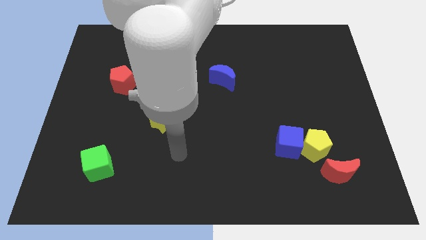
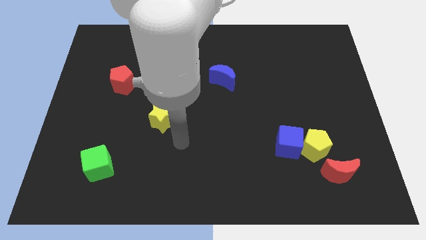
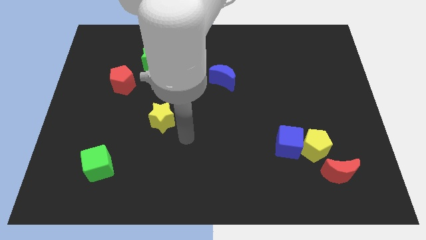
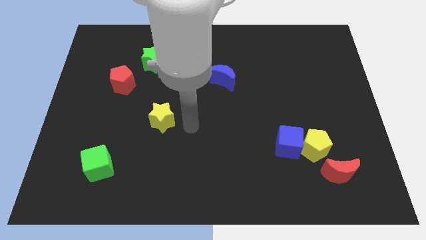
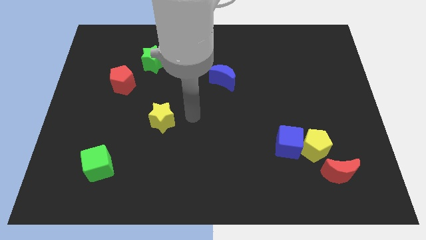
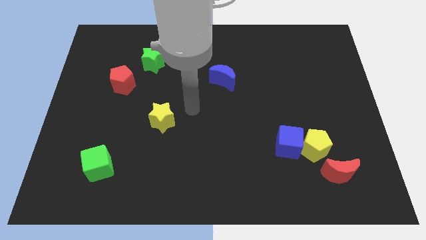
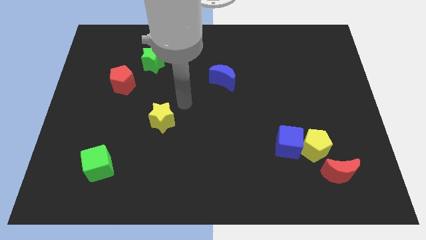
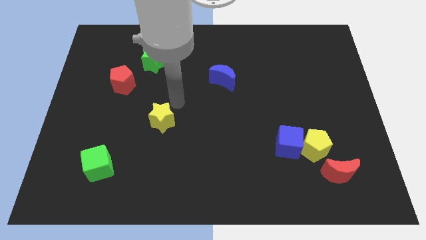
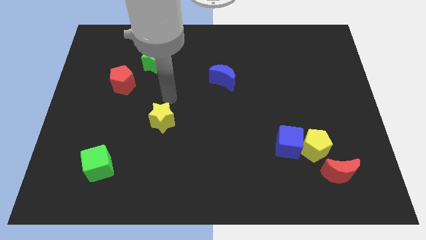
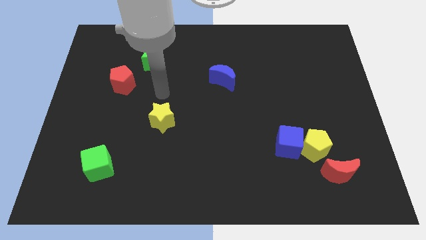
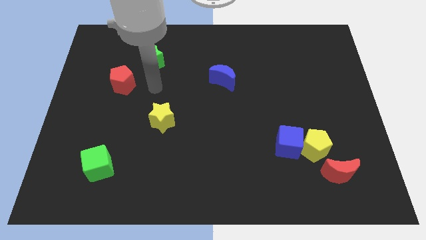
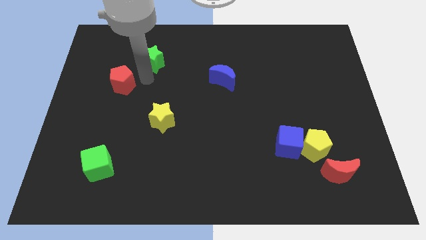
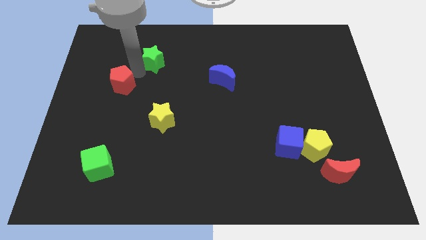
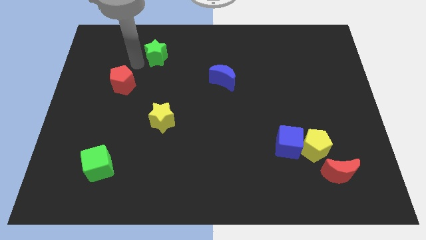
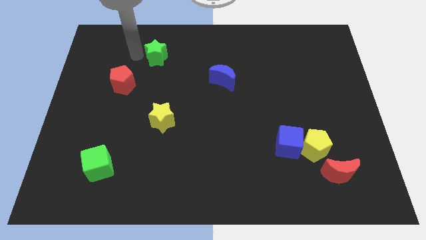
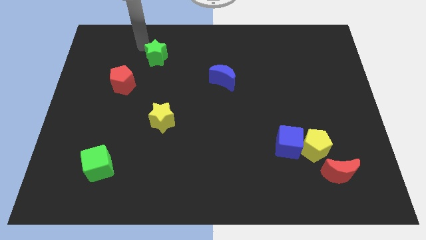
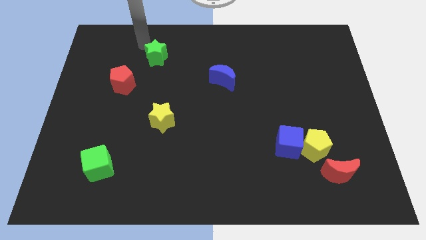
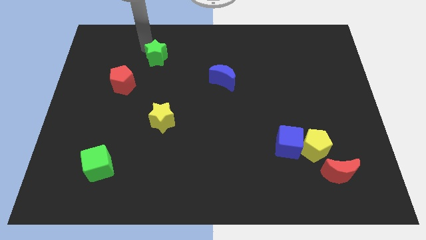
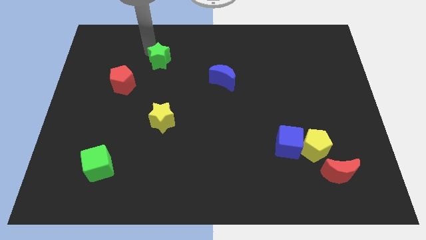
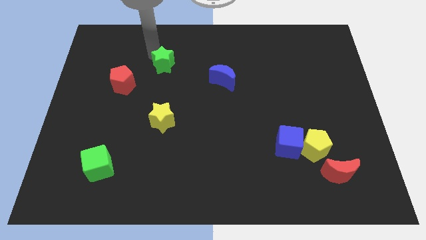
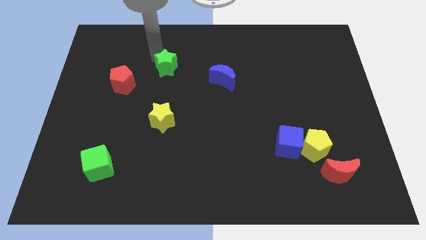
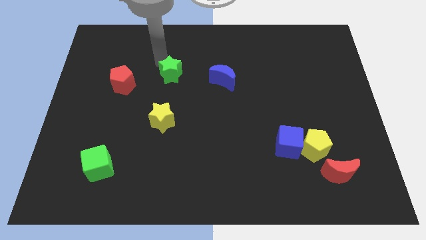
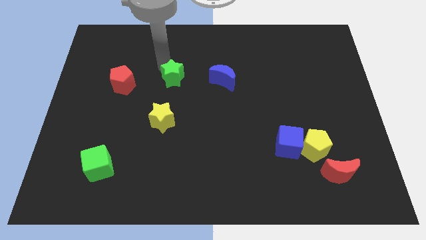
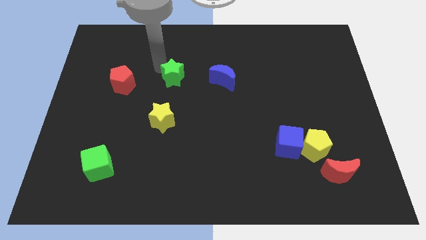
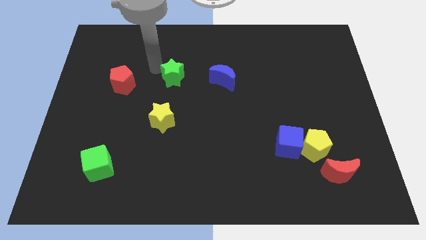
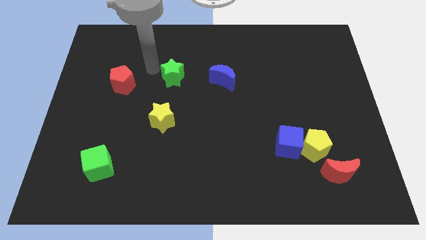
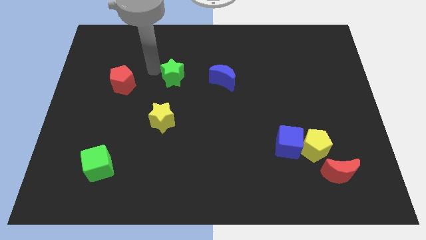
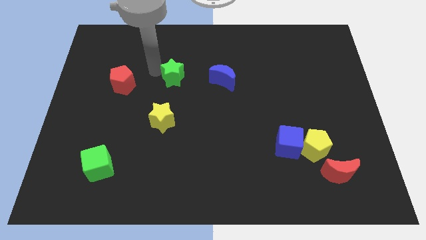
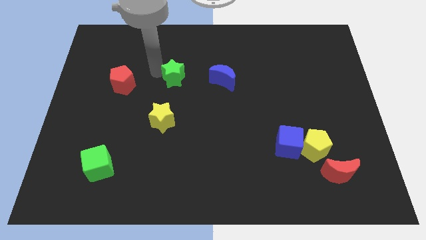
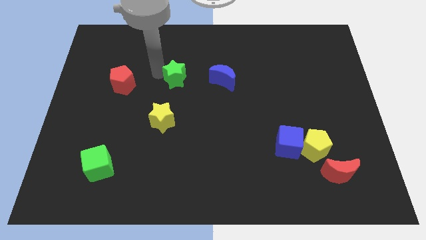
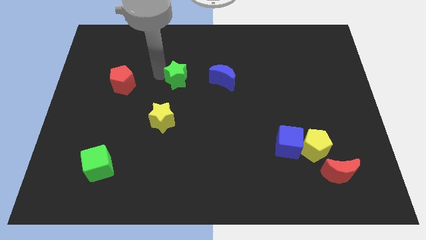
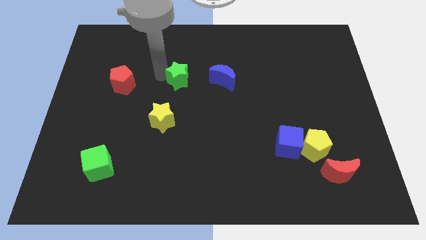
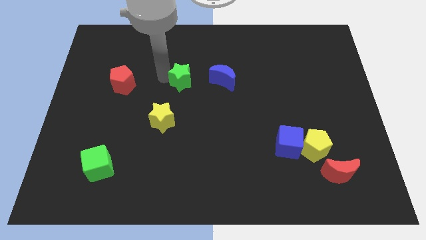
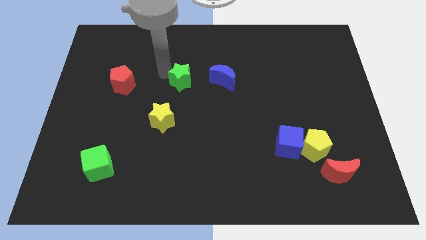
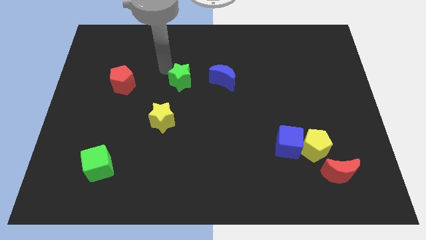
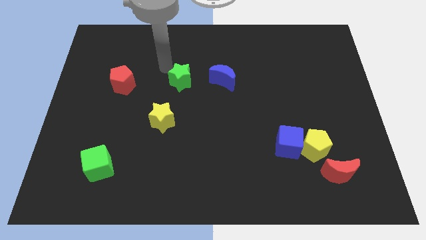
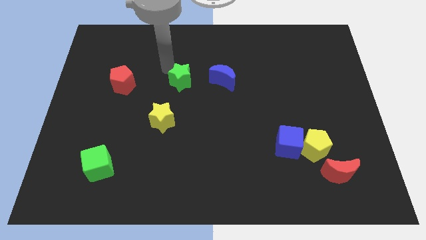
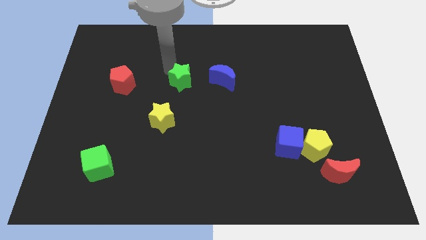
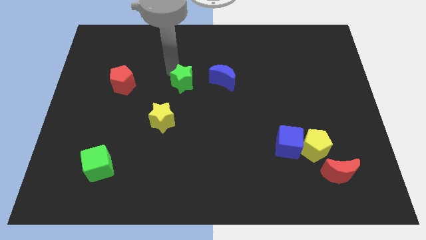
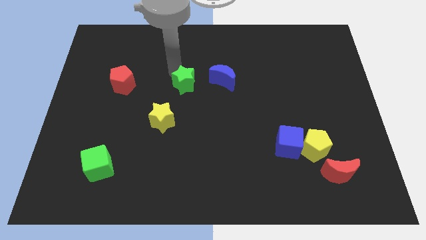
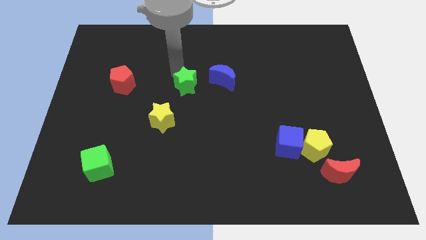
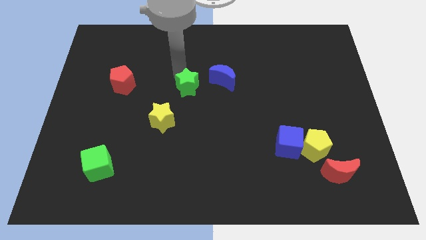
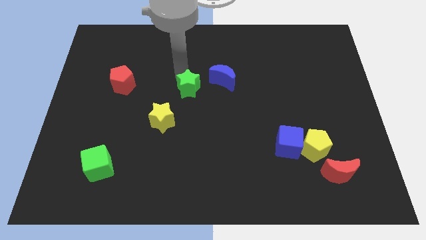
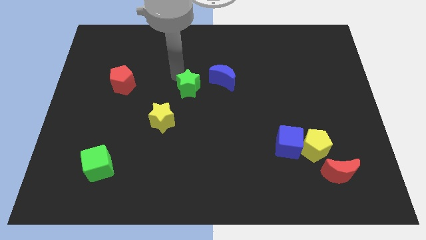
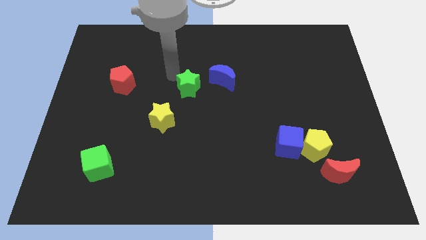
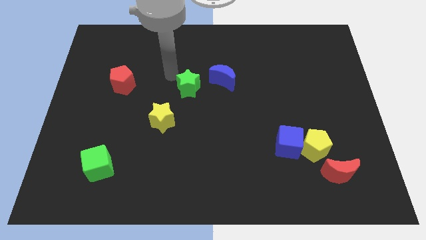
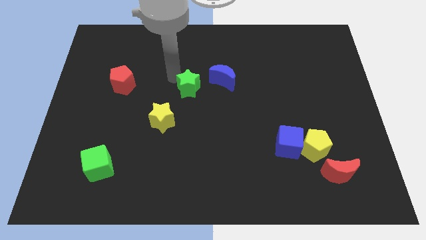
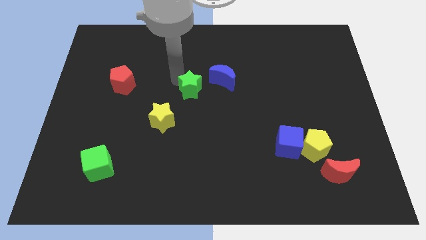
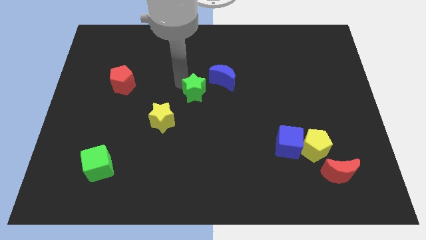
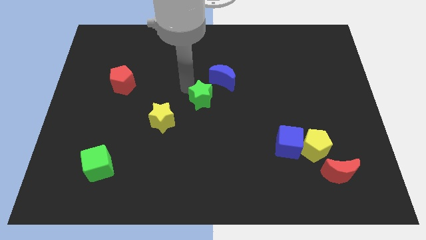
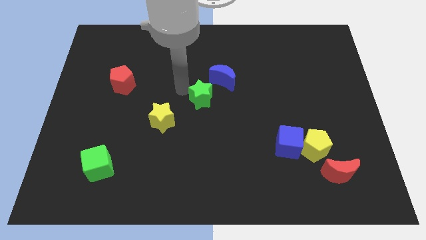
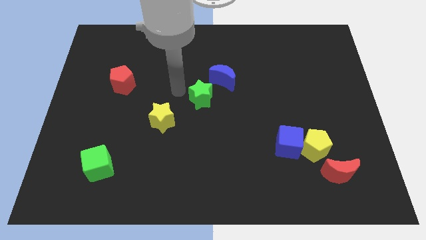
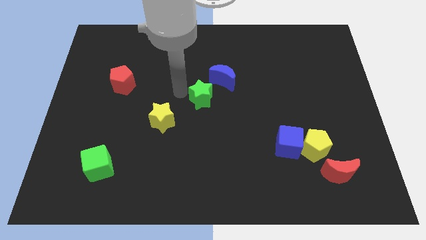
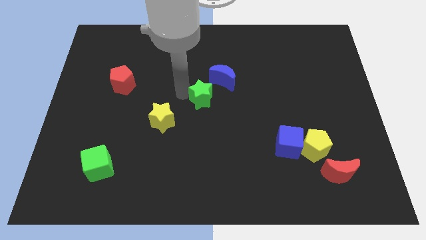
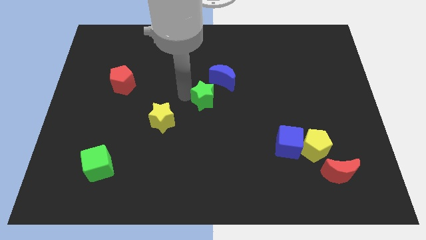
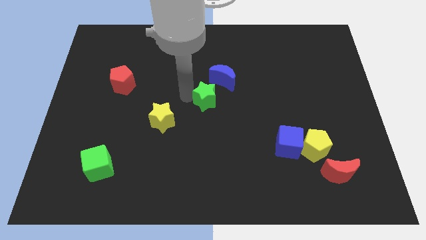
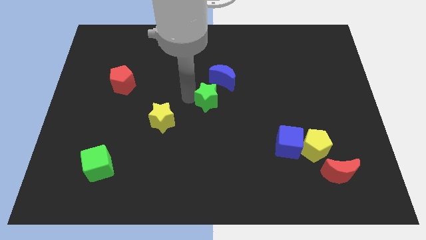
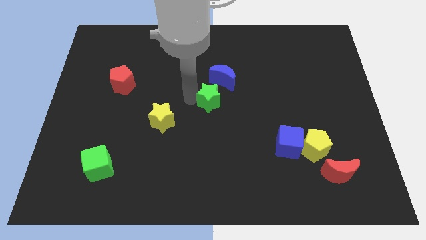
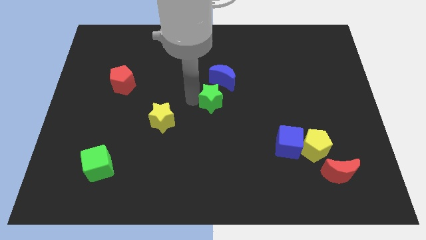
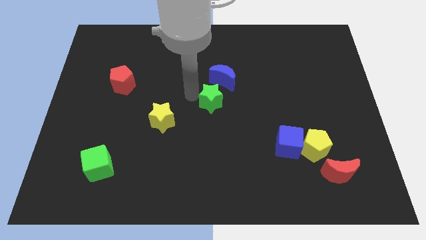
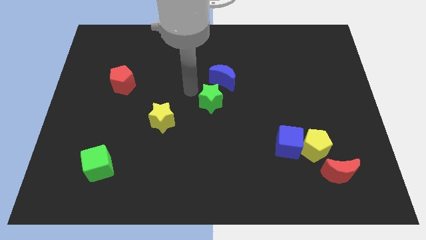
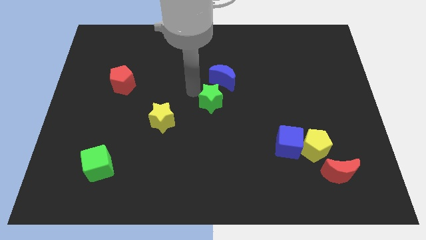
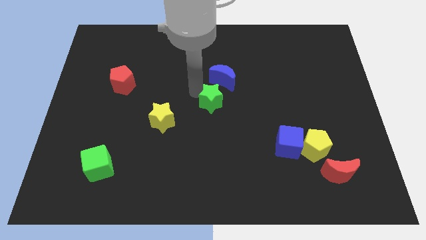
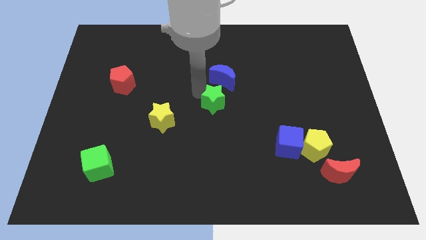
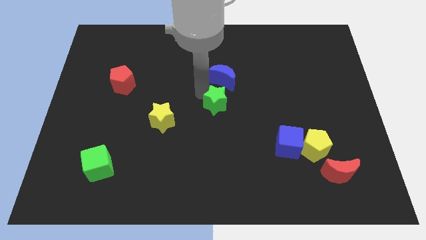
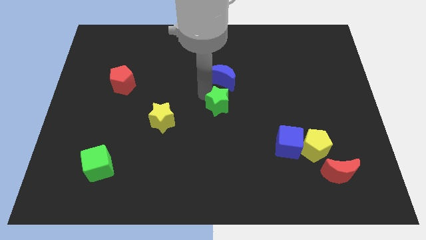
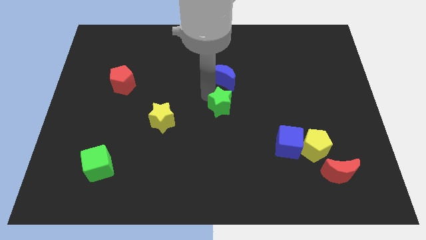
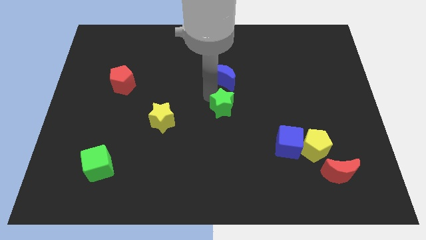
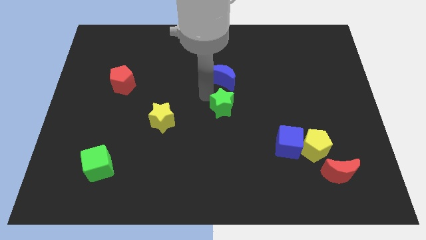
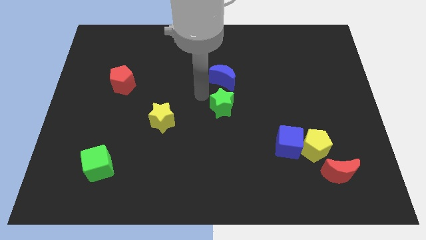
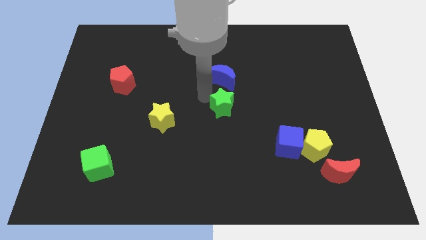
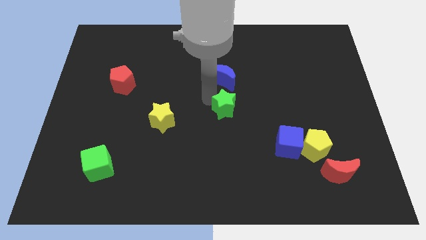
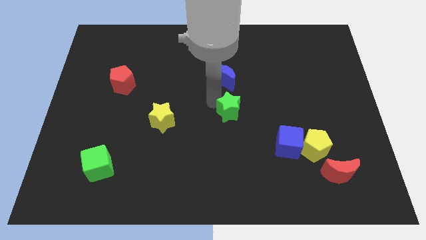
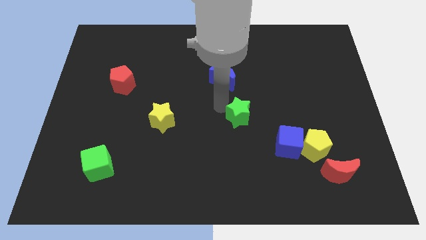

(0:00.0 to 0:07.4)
move the green star to the top left side of the blue cube
